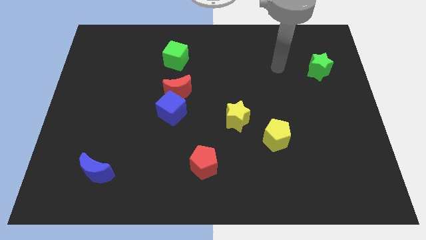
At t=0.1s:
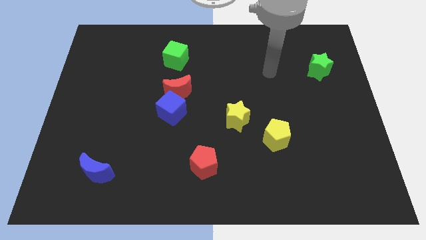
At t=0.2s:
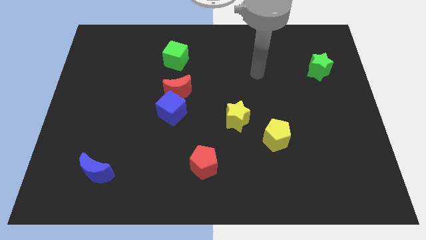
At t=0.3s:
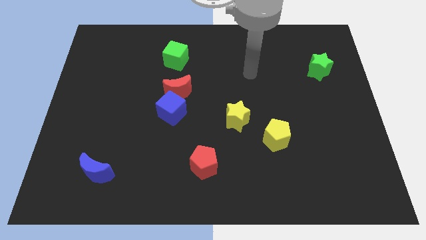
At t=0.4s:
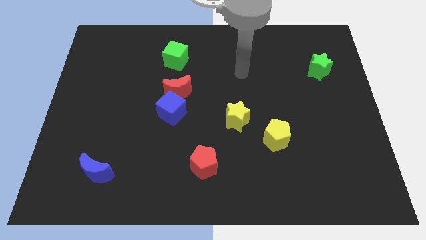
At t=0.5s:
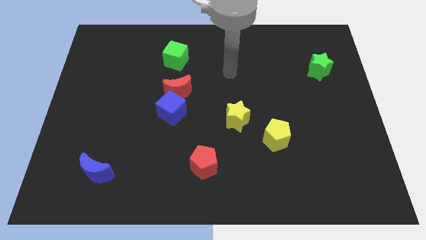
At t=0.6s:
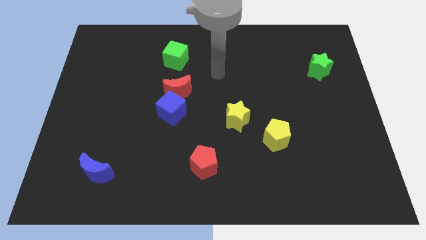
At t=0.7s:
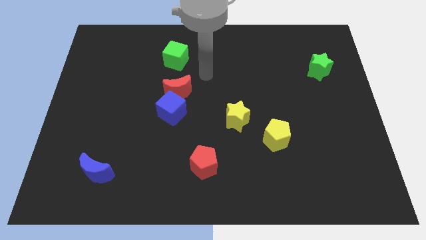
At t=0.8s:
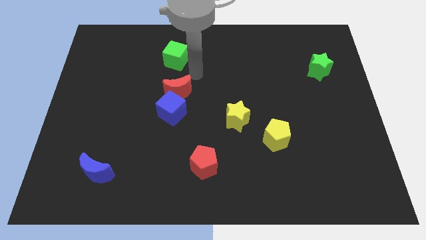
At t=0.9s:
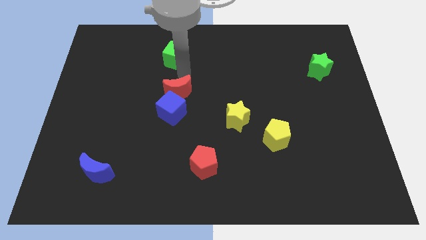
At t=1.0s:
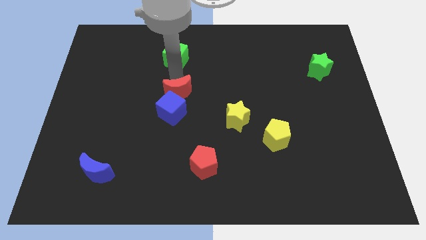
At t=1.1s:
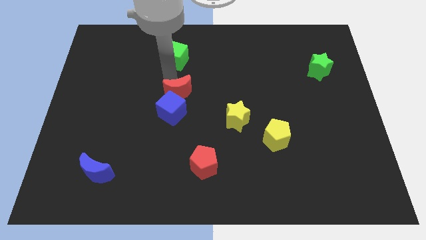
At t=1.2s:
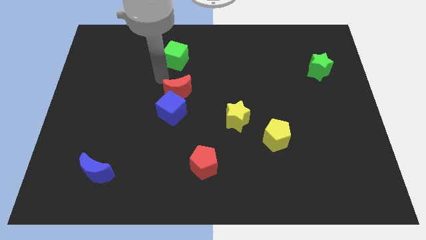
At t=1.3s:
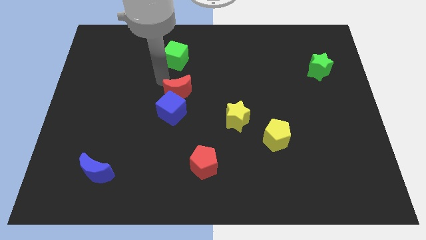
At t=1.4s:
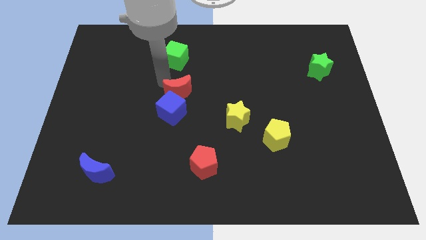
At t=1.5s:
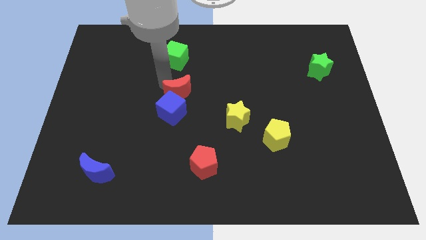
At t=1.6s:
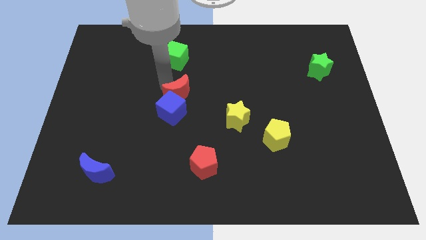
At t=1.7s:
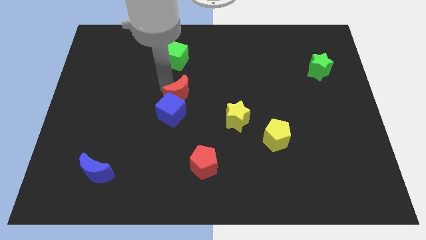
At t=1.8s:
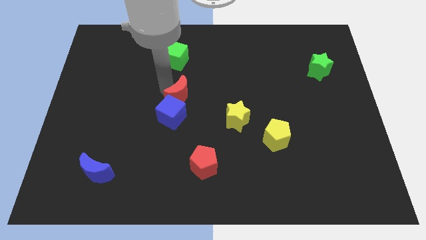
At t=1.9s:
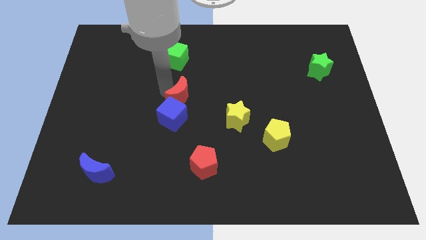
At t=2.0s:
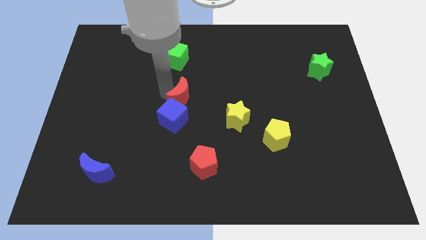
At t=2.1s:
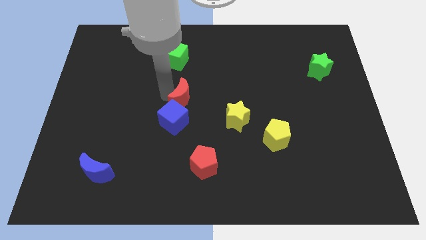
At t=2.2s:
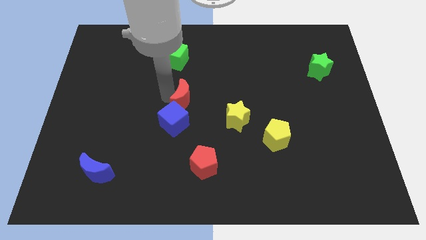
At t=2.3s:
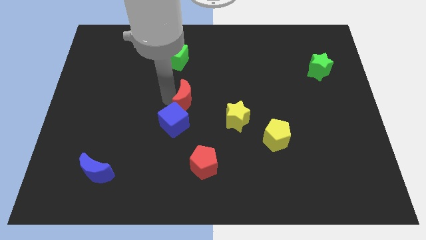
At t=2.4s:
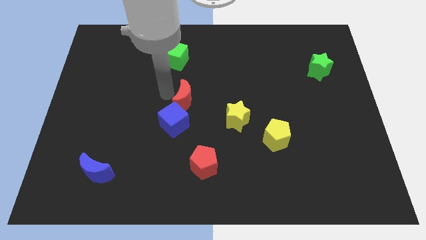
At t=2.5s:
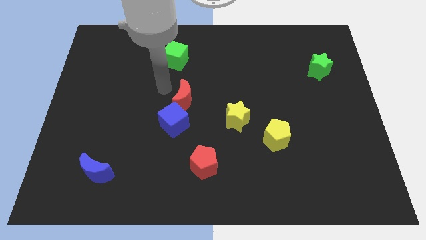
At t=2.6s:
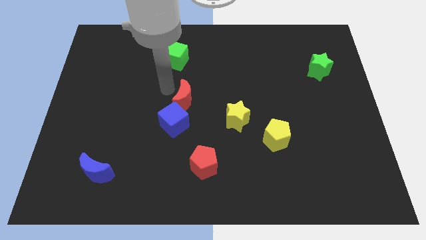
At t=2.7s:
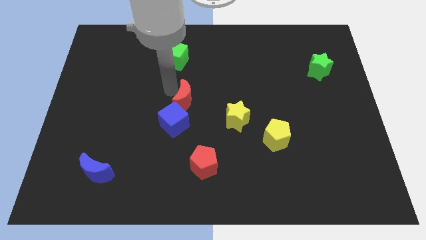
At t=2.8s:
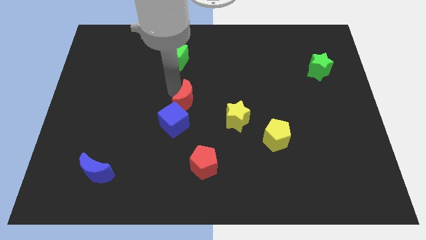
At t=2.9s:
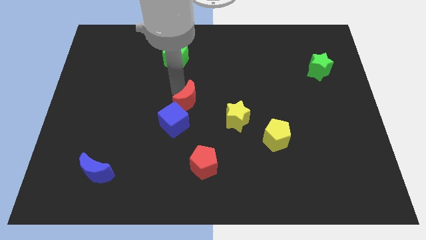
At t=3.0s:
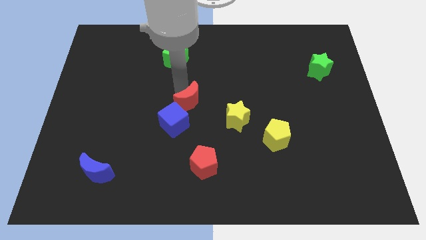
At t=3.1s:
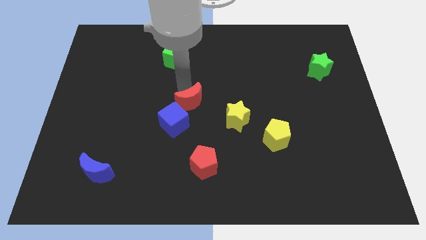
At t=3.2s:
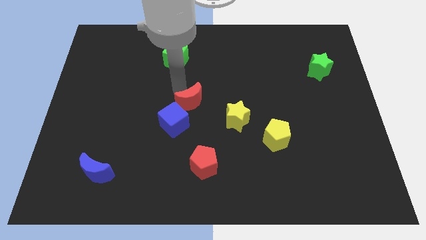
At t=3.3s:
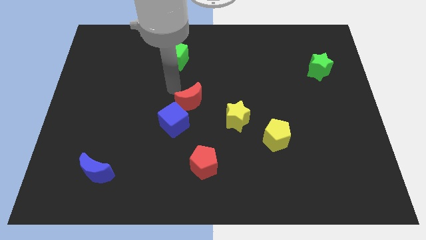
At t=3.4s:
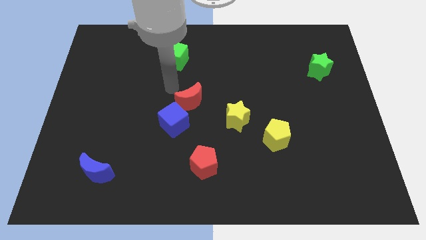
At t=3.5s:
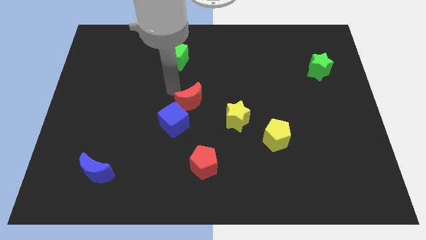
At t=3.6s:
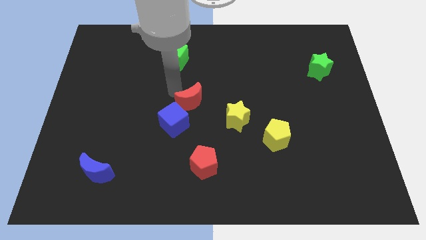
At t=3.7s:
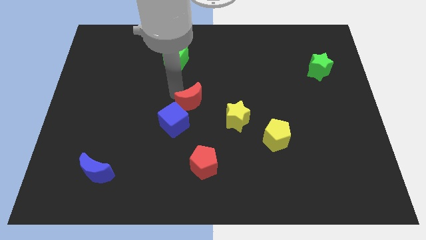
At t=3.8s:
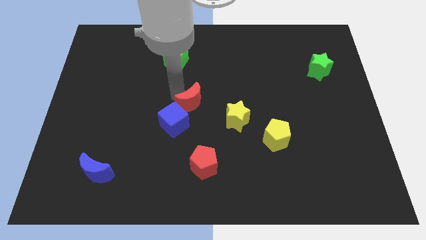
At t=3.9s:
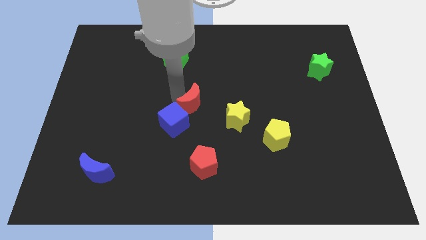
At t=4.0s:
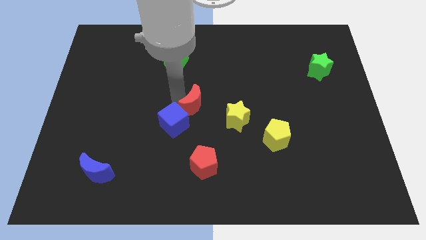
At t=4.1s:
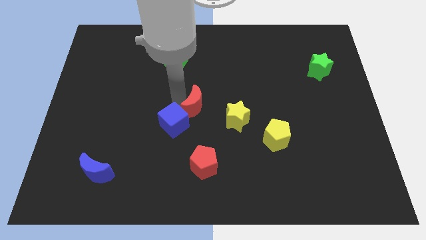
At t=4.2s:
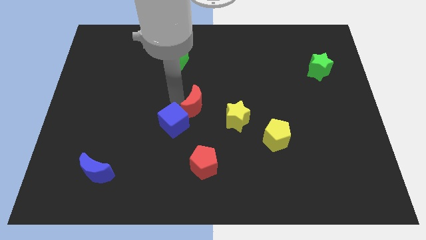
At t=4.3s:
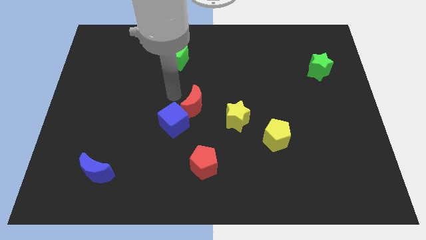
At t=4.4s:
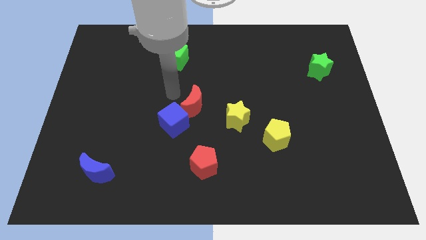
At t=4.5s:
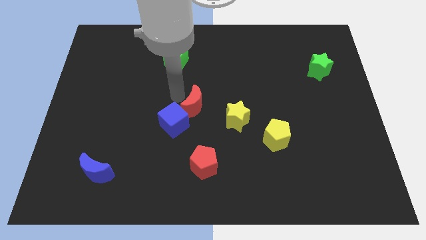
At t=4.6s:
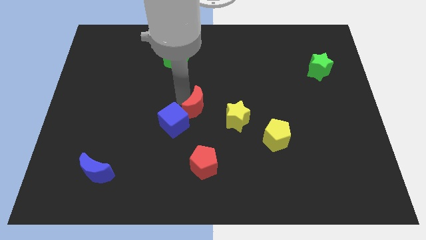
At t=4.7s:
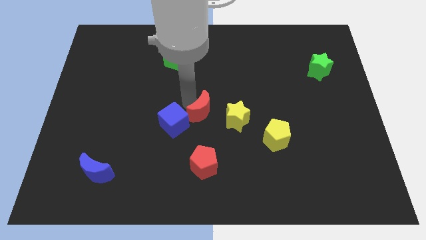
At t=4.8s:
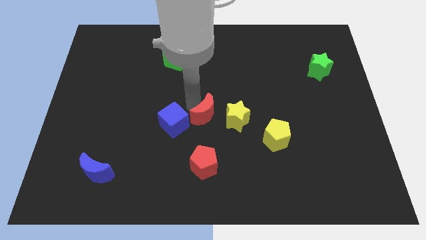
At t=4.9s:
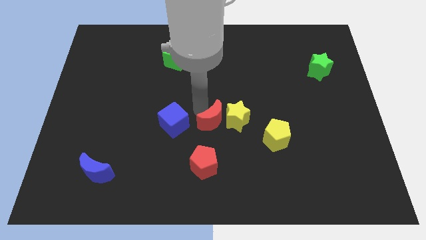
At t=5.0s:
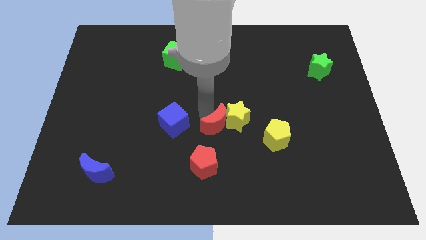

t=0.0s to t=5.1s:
put the red moon just left of the yellow pentagon

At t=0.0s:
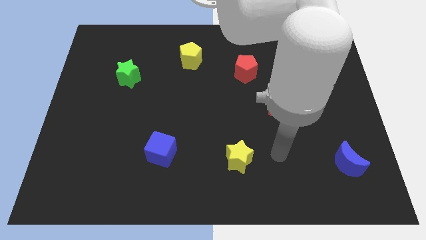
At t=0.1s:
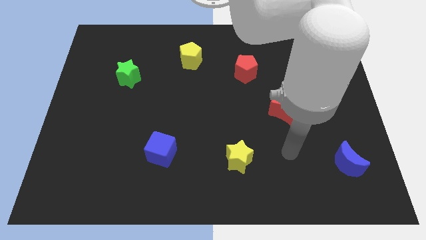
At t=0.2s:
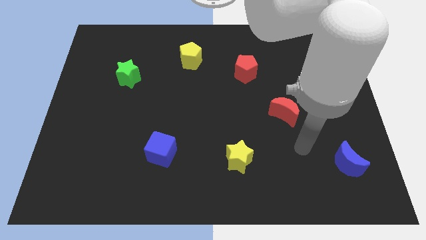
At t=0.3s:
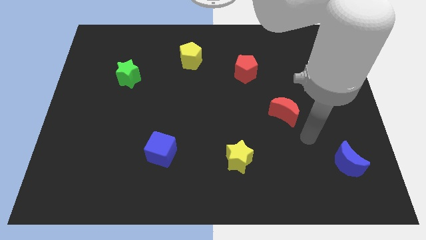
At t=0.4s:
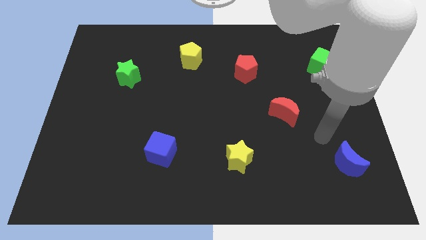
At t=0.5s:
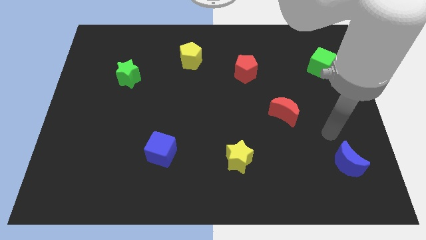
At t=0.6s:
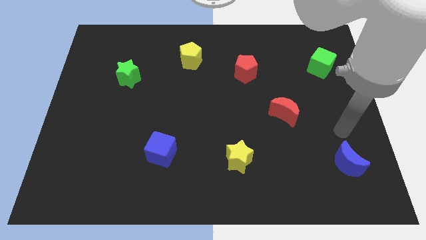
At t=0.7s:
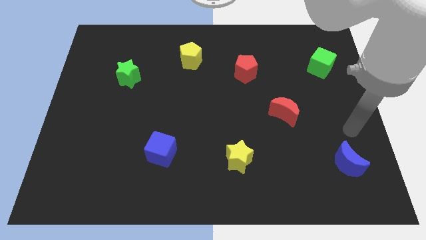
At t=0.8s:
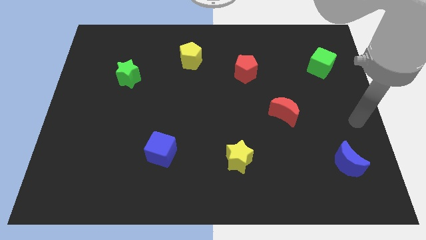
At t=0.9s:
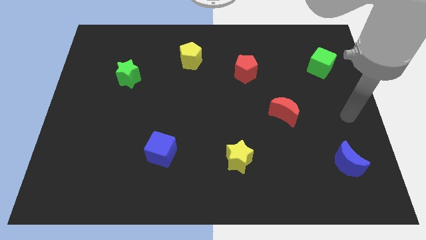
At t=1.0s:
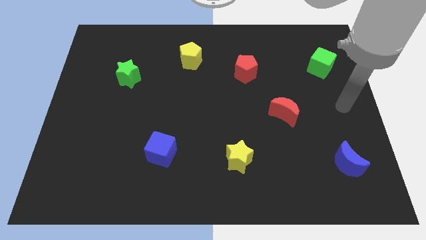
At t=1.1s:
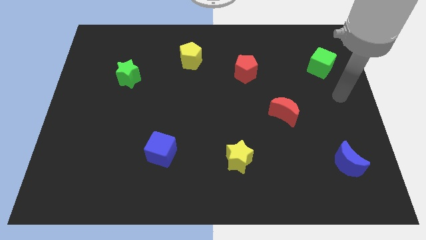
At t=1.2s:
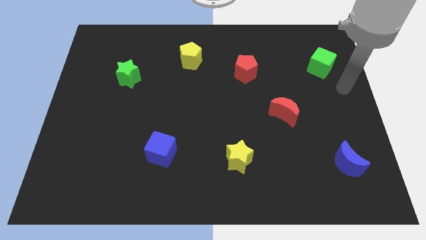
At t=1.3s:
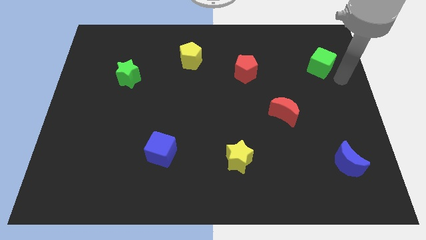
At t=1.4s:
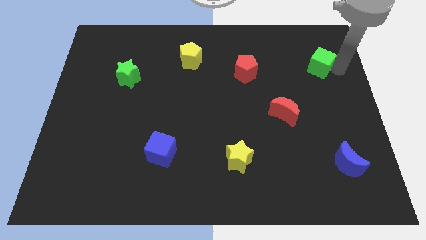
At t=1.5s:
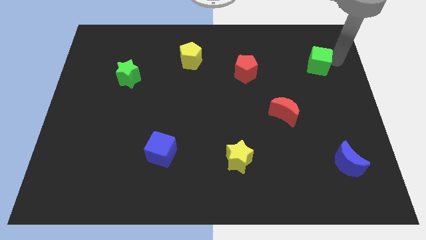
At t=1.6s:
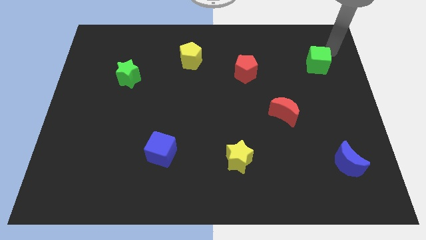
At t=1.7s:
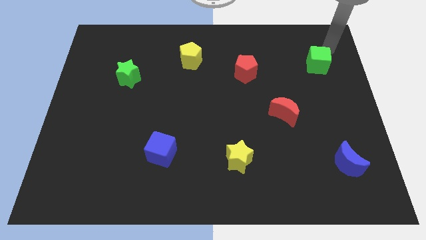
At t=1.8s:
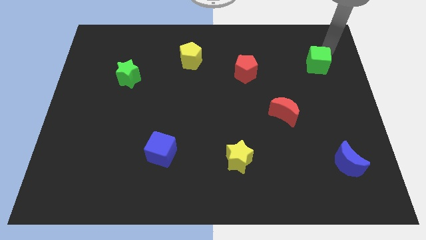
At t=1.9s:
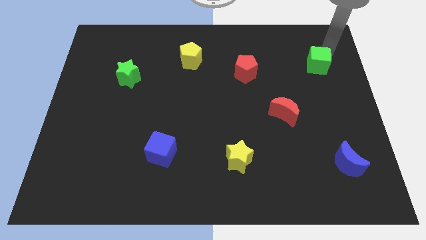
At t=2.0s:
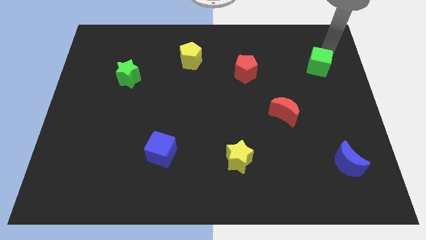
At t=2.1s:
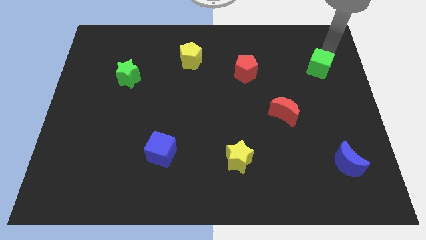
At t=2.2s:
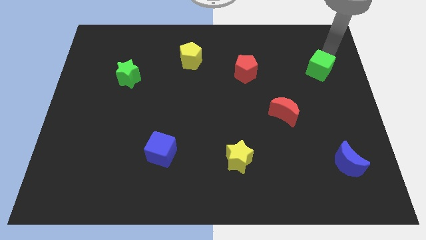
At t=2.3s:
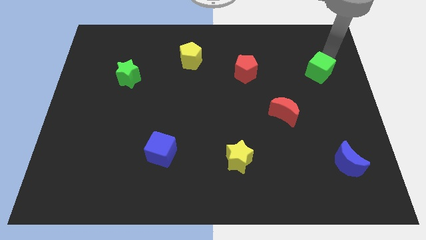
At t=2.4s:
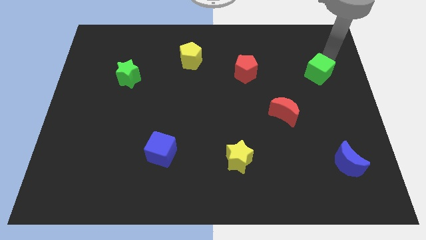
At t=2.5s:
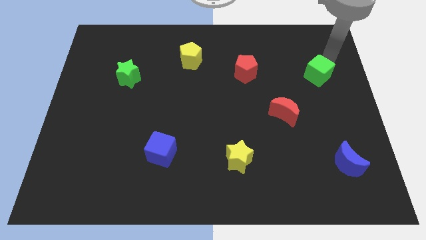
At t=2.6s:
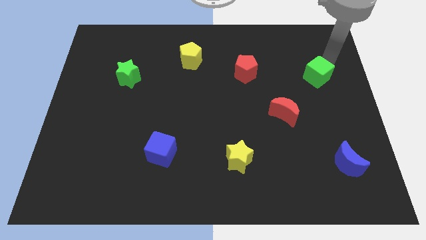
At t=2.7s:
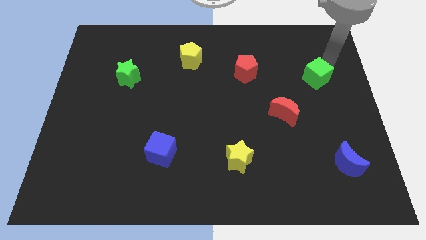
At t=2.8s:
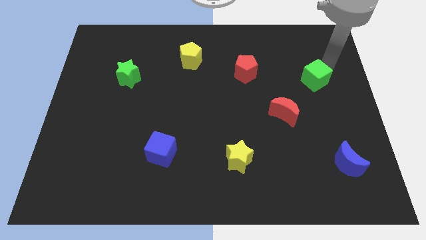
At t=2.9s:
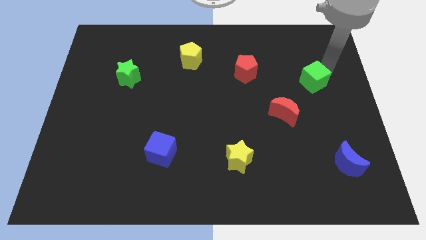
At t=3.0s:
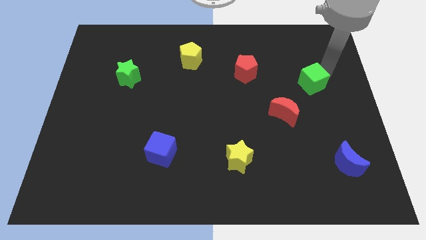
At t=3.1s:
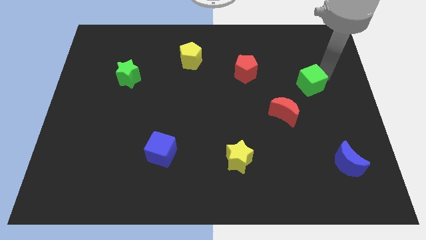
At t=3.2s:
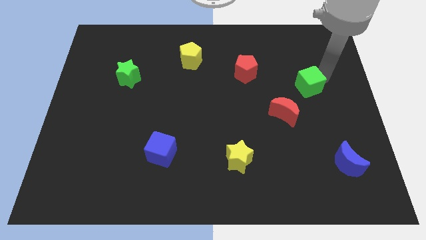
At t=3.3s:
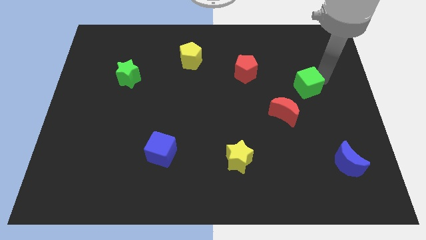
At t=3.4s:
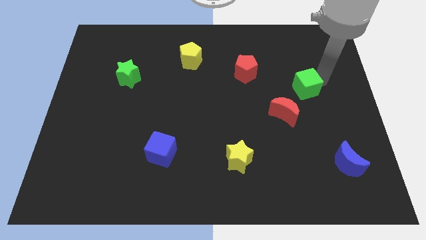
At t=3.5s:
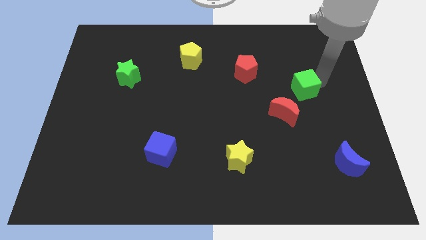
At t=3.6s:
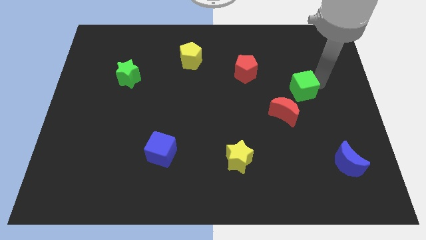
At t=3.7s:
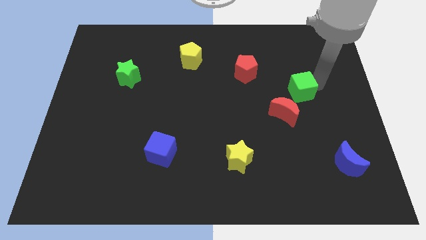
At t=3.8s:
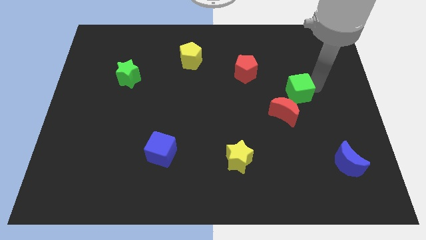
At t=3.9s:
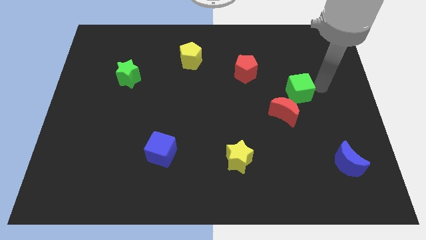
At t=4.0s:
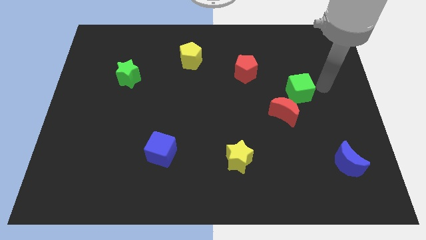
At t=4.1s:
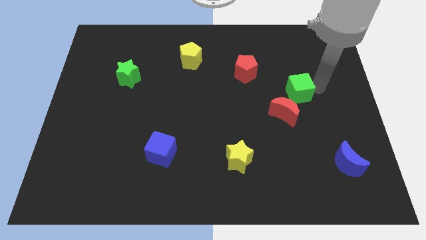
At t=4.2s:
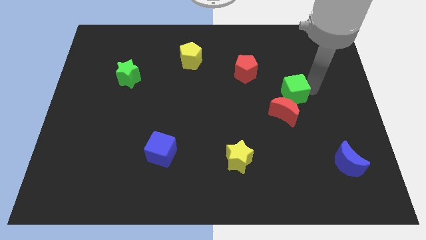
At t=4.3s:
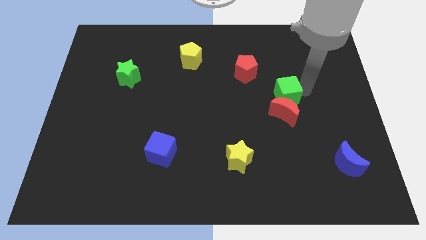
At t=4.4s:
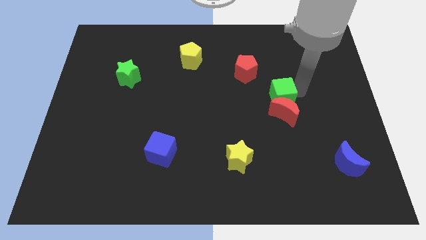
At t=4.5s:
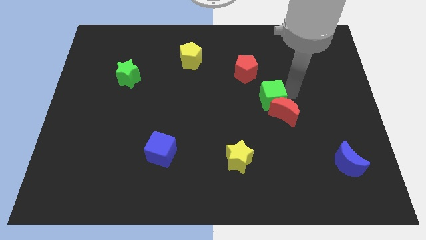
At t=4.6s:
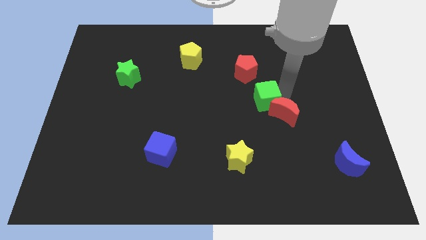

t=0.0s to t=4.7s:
move the green cube to the bottom side of the red pentagon
